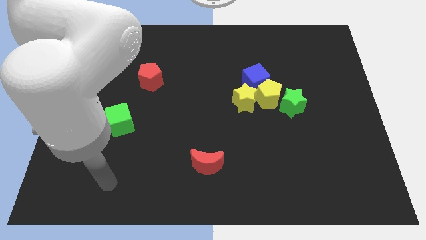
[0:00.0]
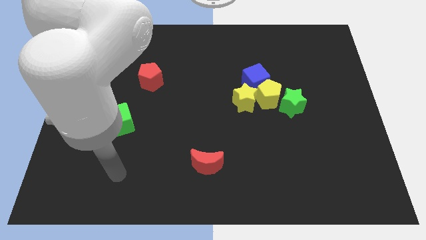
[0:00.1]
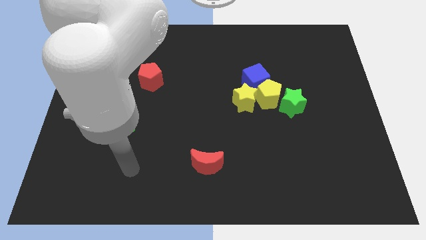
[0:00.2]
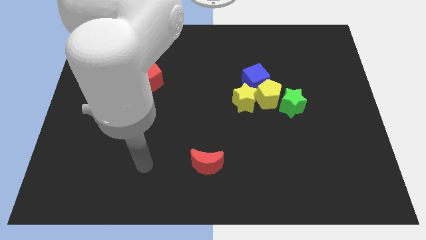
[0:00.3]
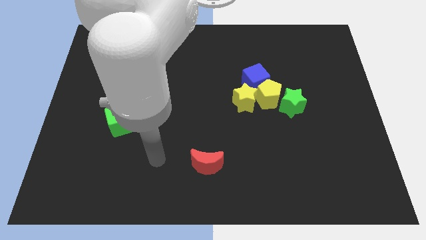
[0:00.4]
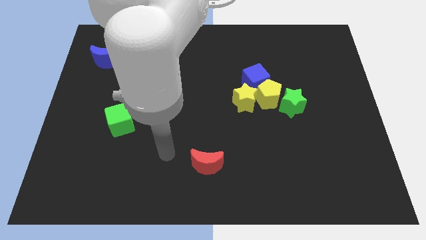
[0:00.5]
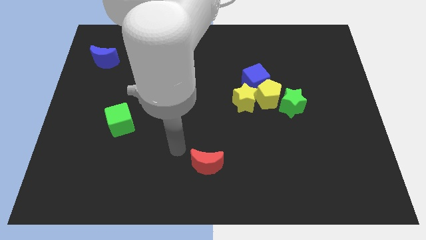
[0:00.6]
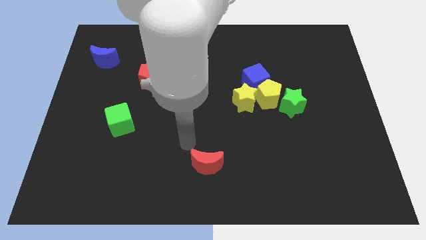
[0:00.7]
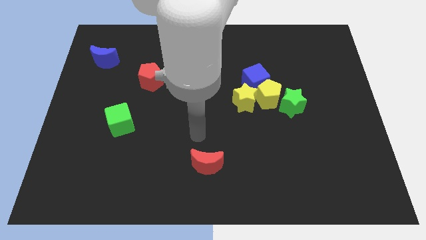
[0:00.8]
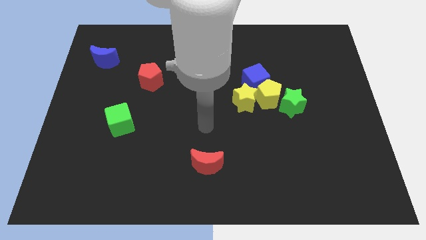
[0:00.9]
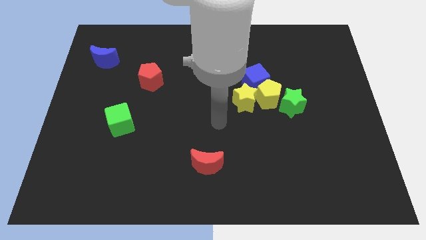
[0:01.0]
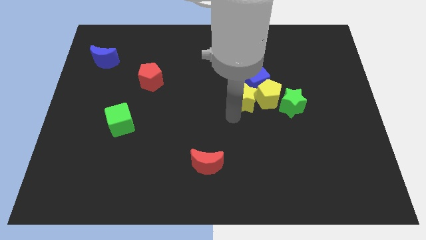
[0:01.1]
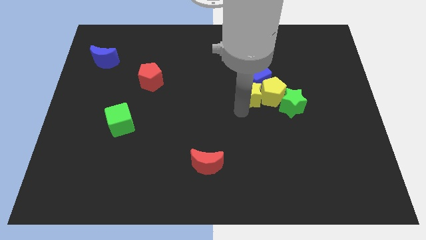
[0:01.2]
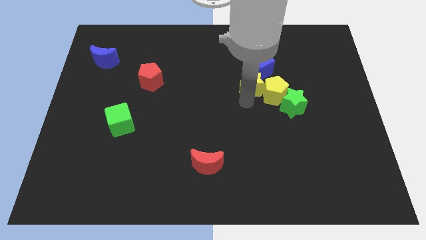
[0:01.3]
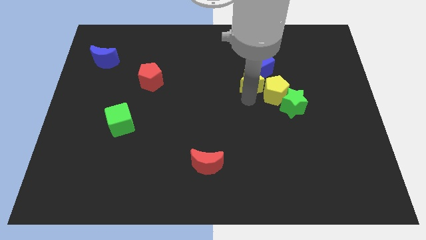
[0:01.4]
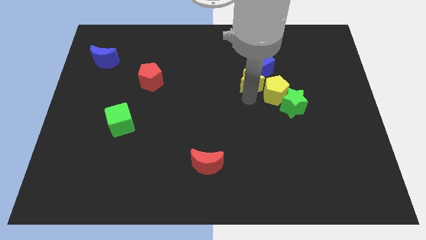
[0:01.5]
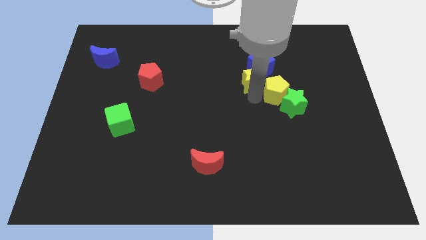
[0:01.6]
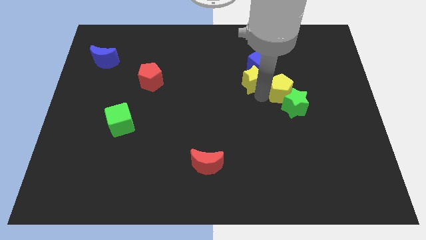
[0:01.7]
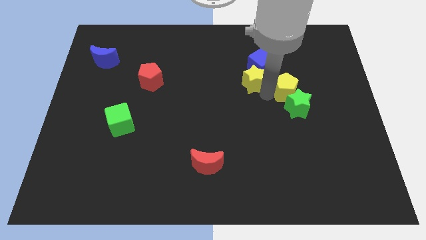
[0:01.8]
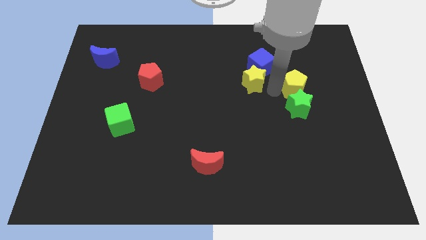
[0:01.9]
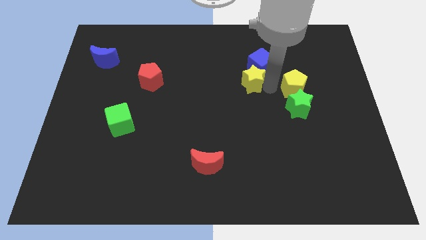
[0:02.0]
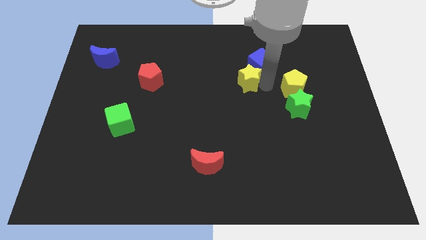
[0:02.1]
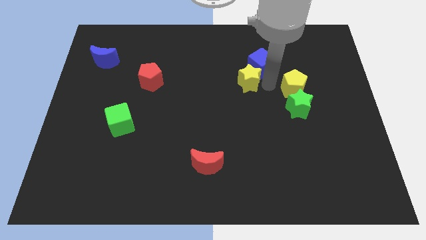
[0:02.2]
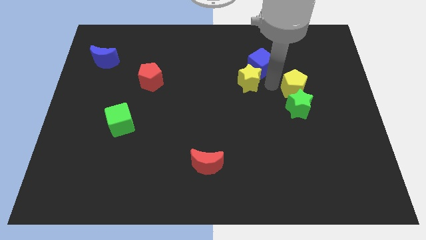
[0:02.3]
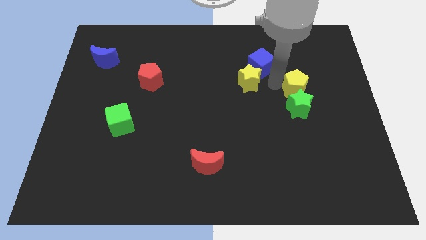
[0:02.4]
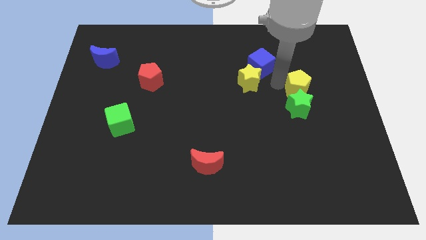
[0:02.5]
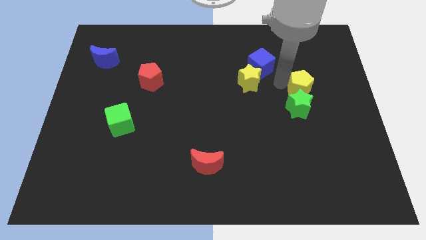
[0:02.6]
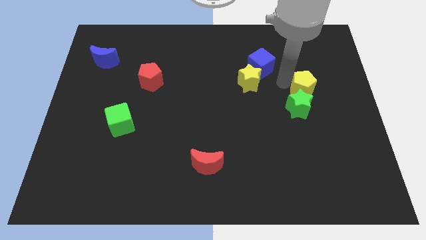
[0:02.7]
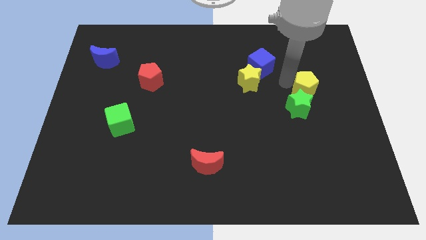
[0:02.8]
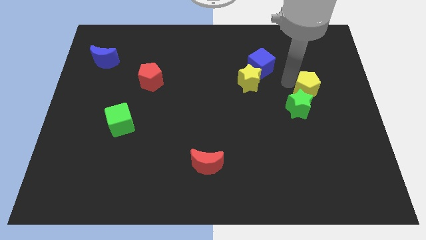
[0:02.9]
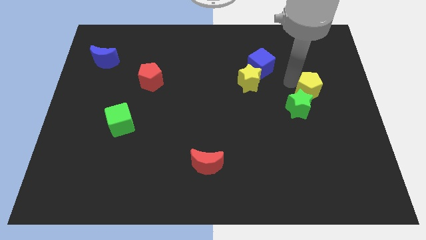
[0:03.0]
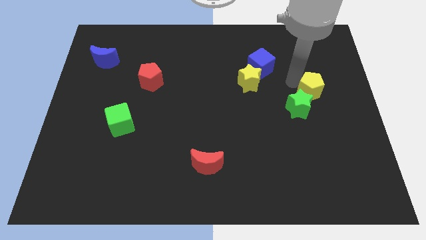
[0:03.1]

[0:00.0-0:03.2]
pull the yellow pentagon apart from the blue cube, yellow star, and green star

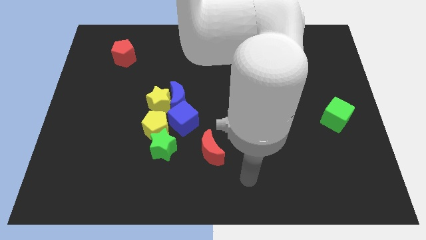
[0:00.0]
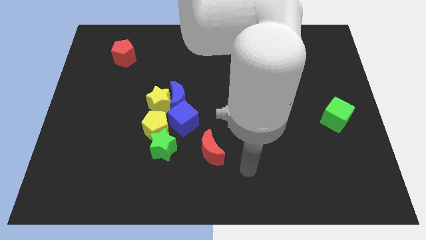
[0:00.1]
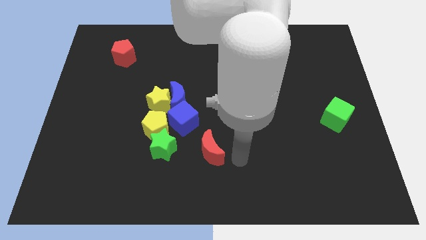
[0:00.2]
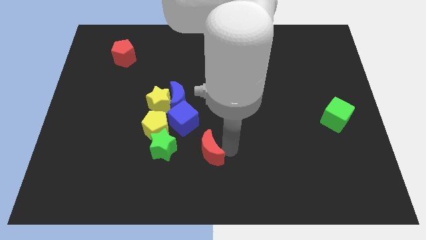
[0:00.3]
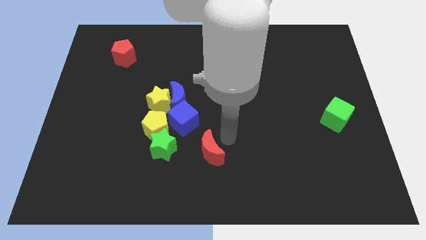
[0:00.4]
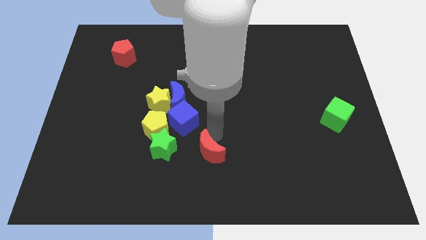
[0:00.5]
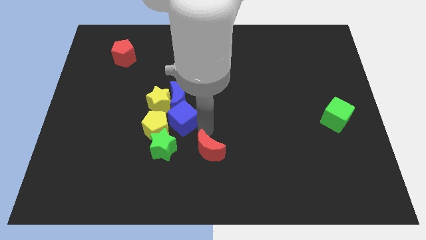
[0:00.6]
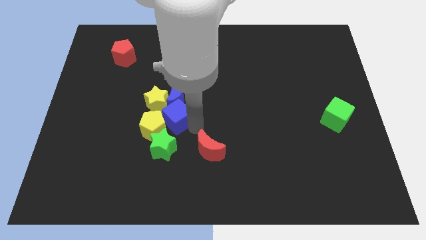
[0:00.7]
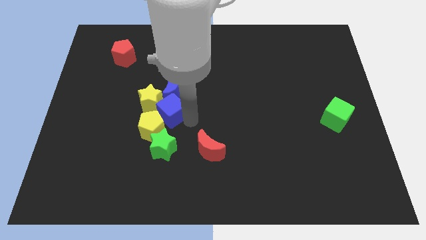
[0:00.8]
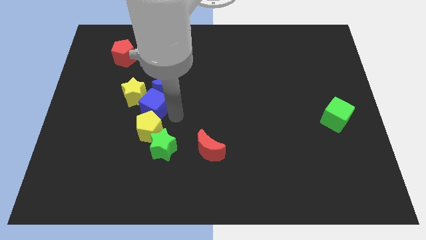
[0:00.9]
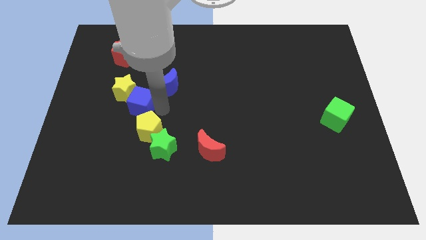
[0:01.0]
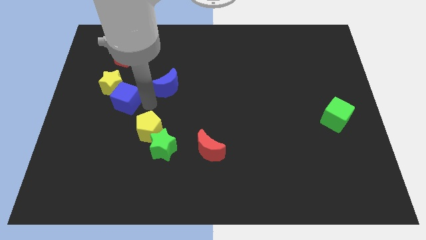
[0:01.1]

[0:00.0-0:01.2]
move the yellow star away from the blue moon, yellow pentagon, and blue cube

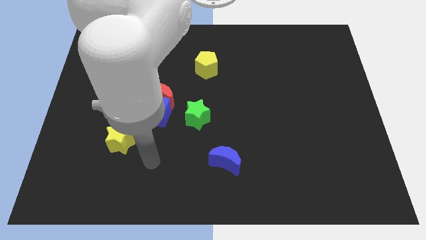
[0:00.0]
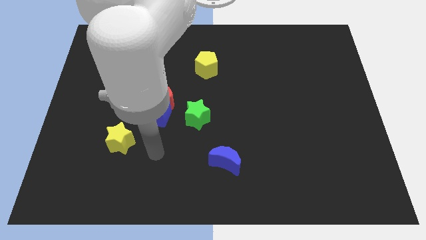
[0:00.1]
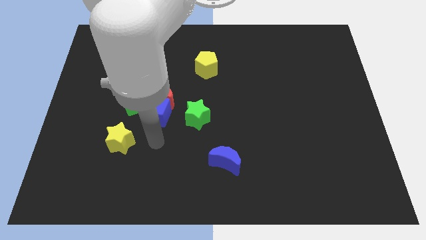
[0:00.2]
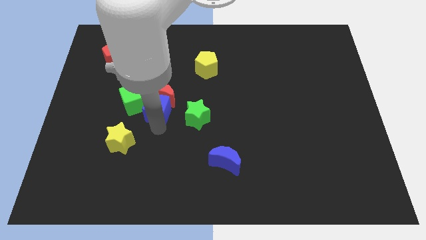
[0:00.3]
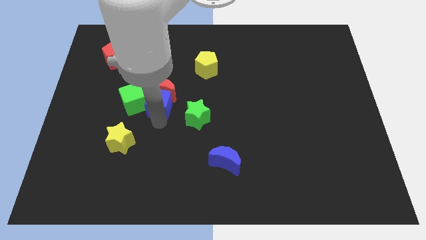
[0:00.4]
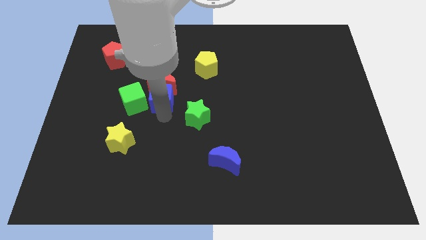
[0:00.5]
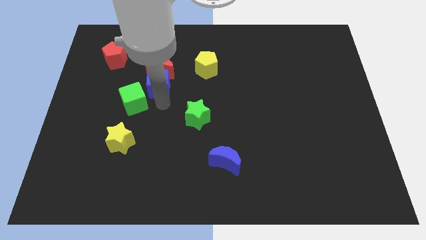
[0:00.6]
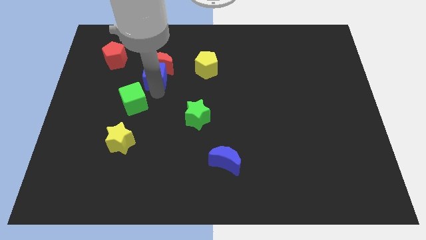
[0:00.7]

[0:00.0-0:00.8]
pull the green cube apart from the red moon and blue cube

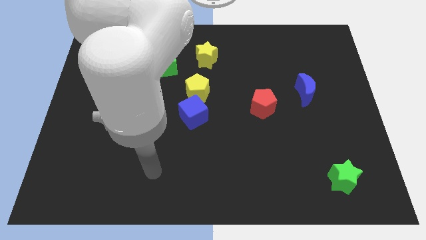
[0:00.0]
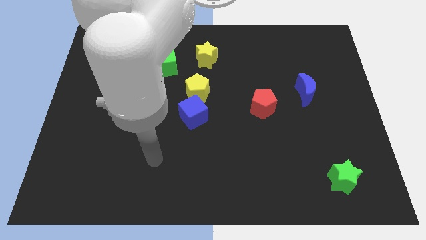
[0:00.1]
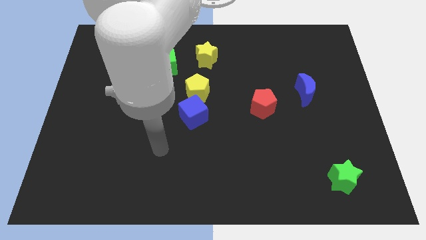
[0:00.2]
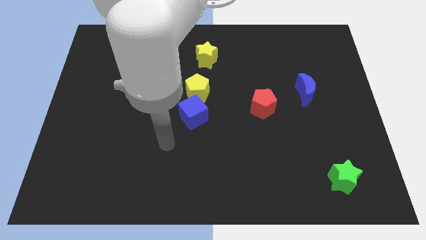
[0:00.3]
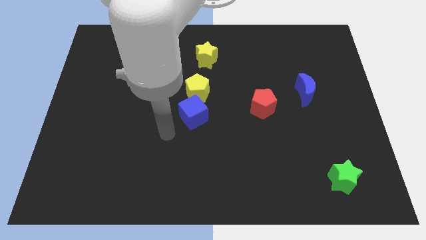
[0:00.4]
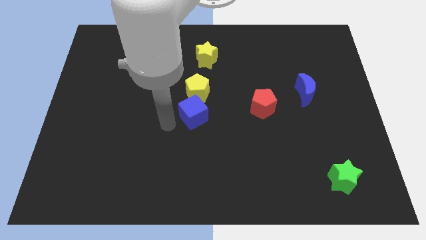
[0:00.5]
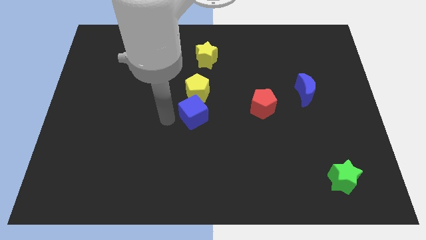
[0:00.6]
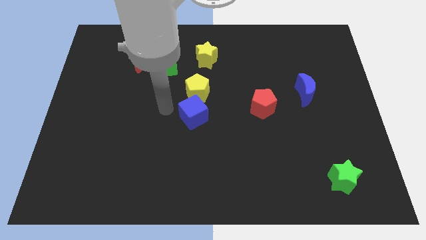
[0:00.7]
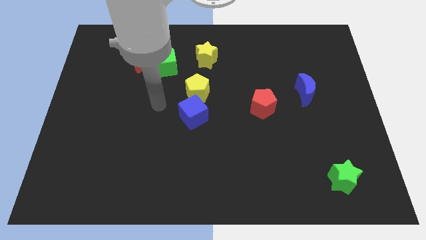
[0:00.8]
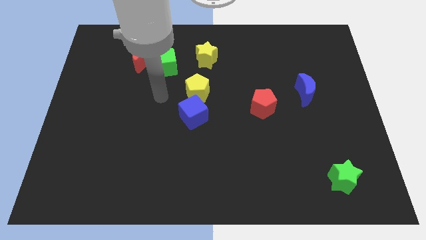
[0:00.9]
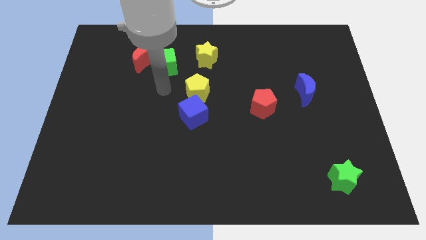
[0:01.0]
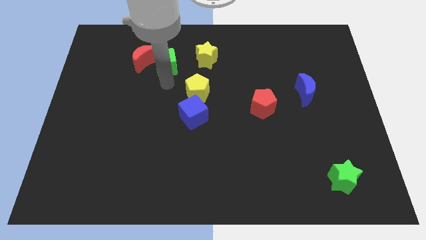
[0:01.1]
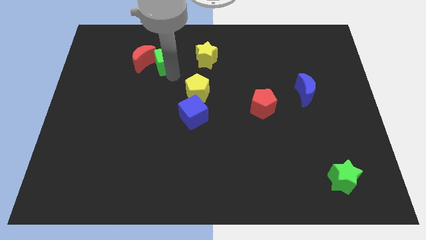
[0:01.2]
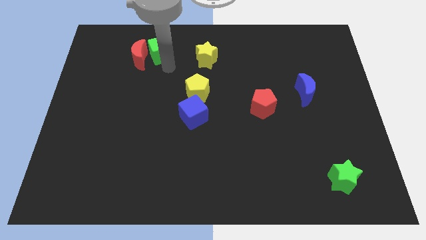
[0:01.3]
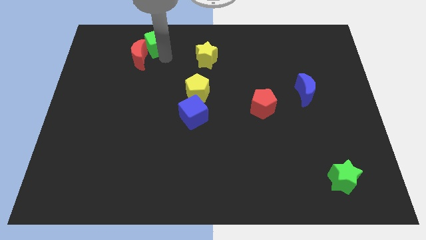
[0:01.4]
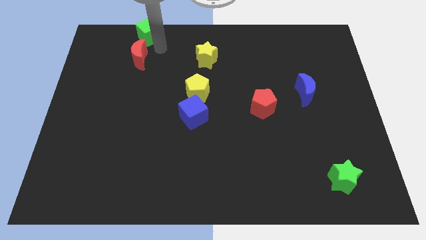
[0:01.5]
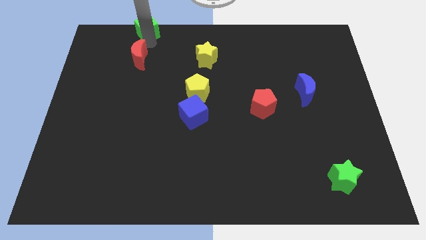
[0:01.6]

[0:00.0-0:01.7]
move the red moon away from the green cube

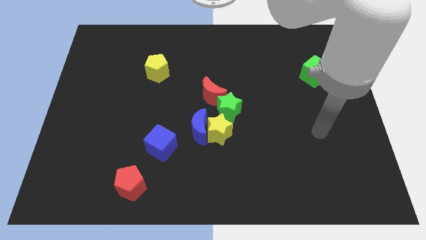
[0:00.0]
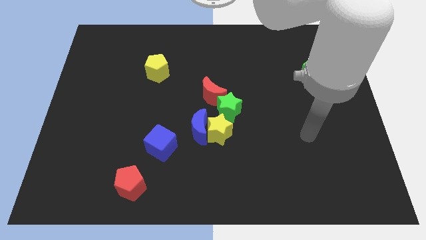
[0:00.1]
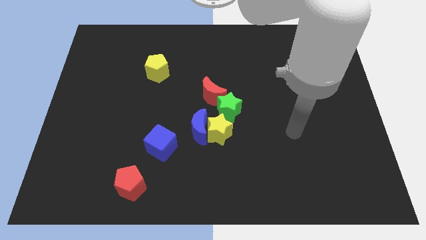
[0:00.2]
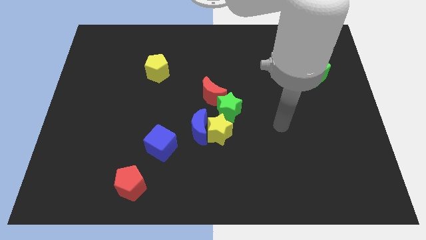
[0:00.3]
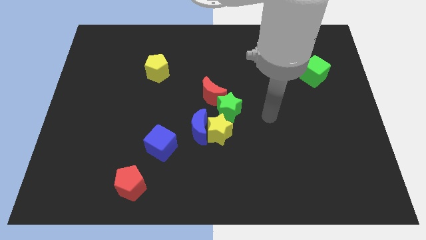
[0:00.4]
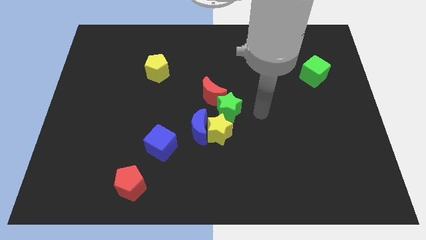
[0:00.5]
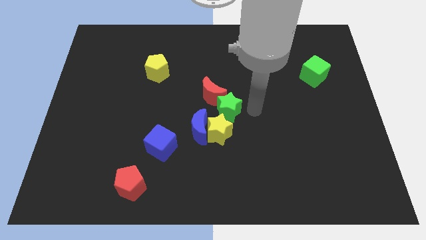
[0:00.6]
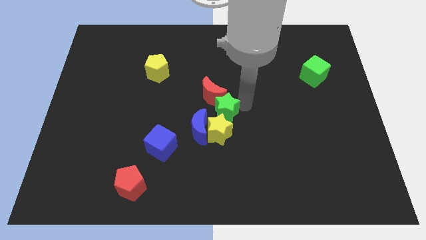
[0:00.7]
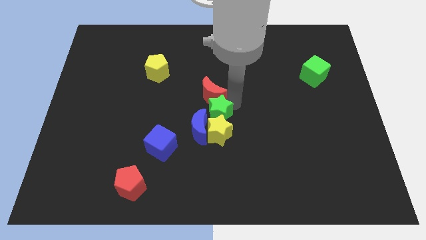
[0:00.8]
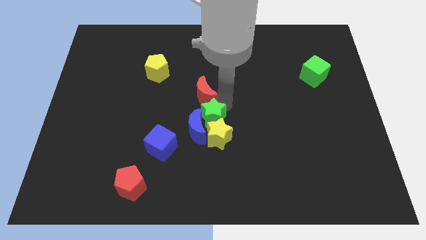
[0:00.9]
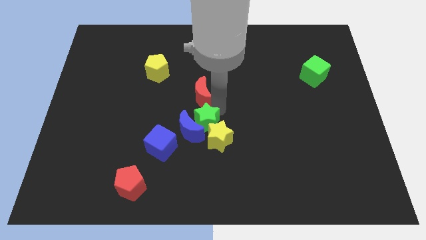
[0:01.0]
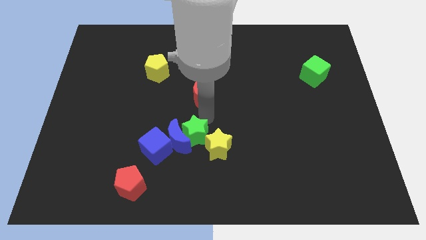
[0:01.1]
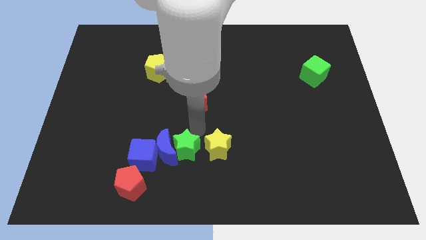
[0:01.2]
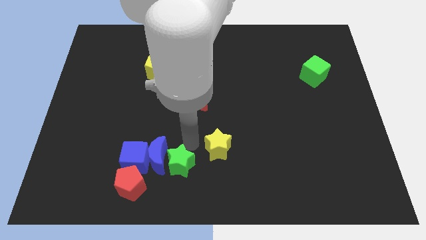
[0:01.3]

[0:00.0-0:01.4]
move the yellow star away from the blue moon and green star

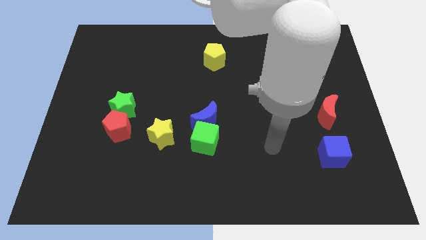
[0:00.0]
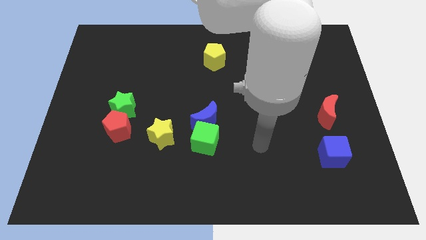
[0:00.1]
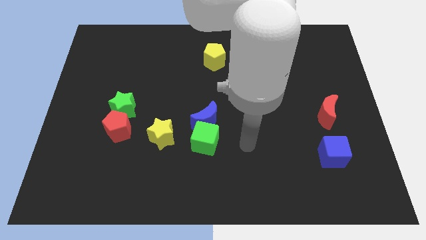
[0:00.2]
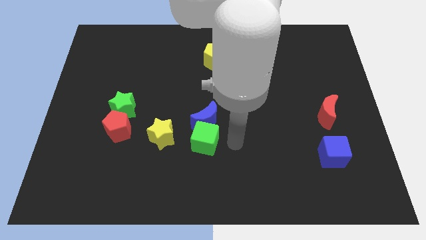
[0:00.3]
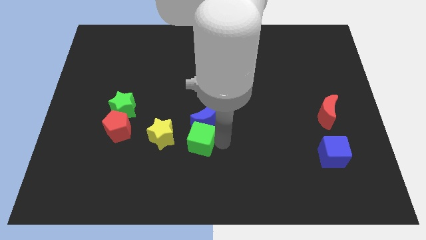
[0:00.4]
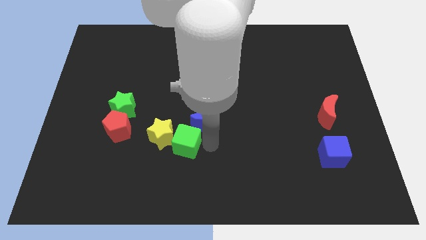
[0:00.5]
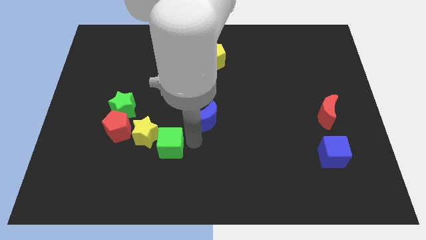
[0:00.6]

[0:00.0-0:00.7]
pull the blue moon apart from the green cube

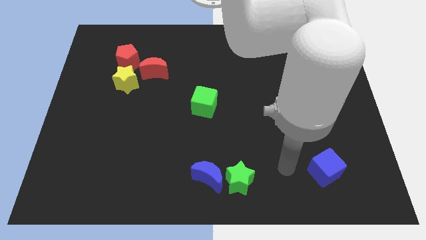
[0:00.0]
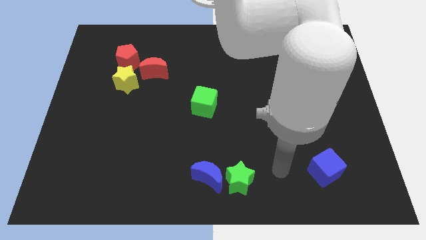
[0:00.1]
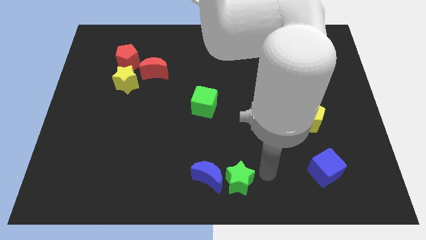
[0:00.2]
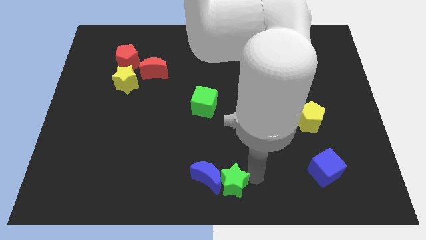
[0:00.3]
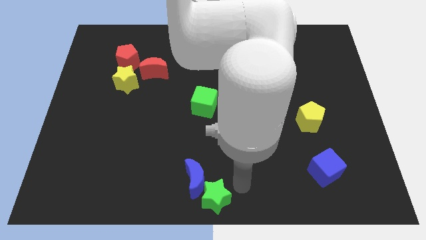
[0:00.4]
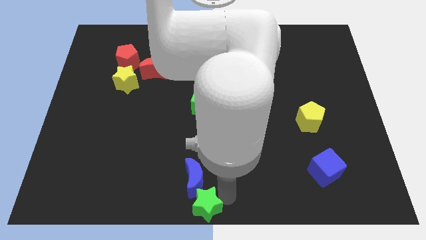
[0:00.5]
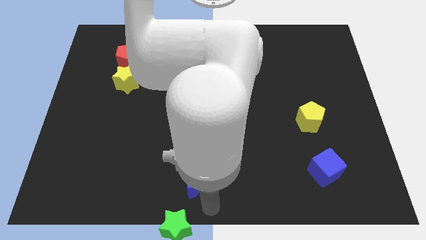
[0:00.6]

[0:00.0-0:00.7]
separate the blue moon from the green star
